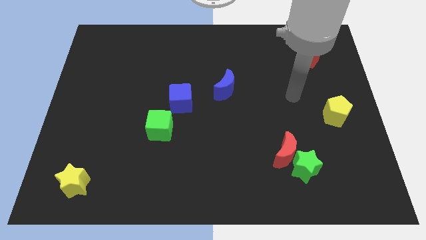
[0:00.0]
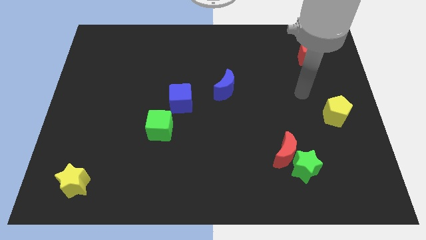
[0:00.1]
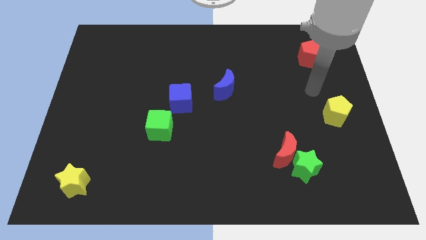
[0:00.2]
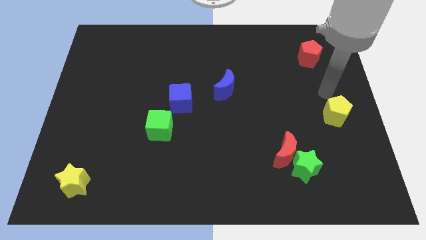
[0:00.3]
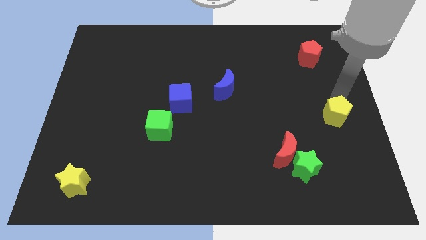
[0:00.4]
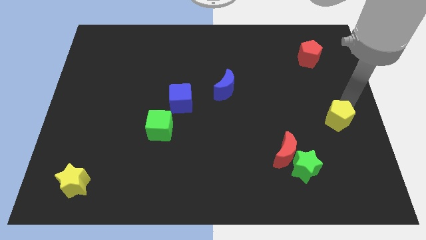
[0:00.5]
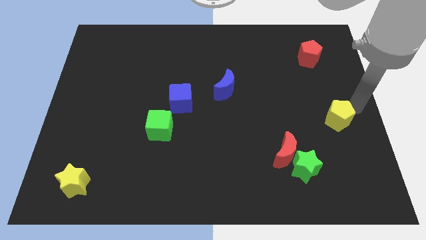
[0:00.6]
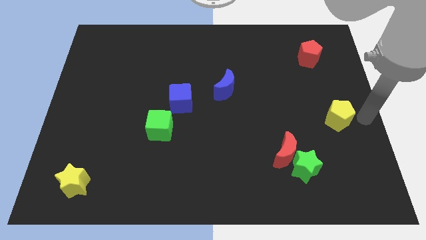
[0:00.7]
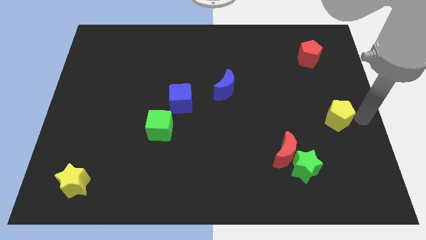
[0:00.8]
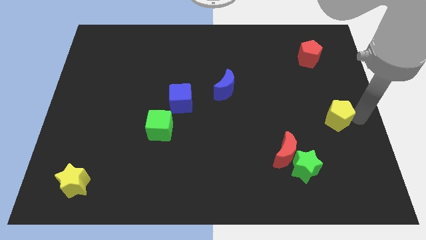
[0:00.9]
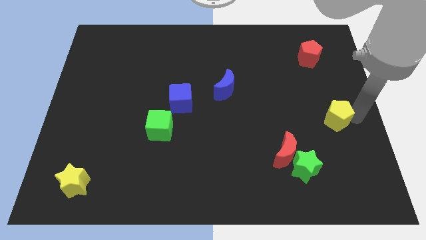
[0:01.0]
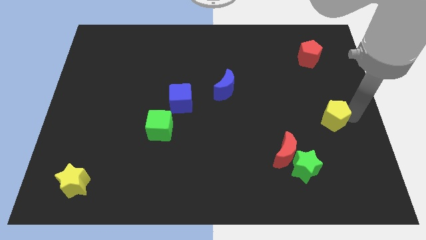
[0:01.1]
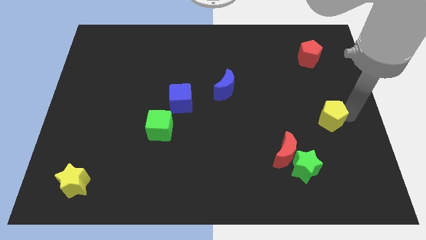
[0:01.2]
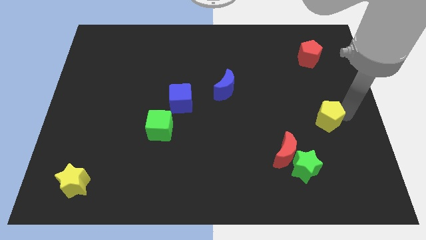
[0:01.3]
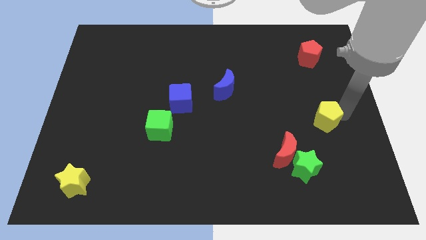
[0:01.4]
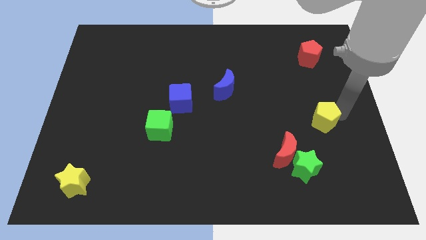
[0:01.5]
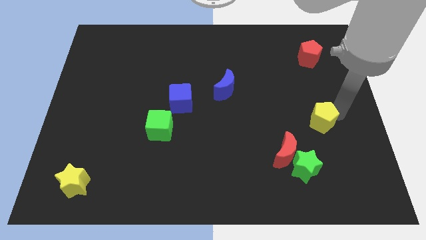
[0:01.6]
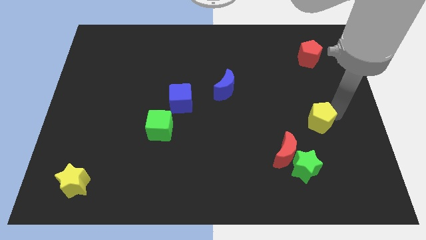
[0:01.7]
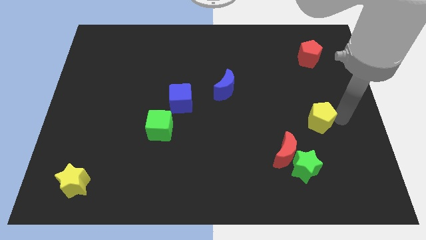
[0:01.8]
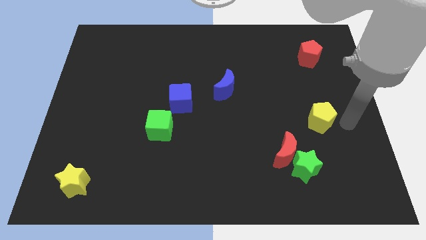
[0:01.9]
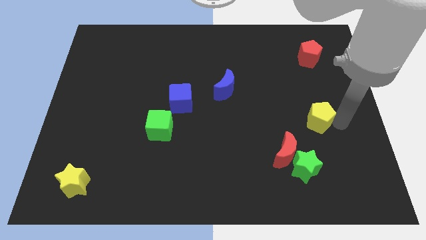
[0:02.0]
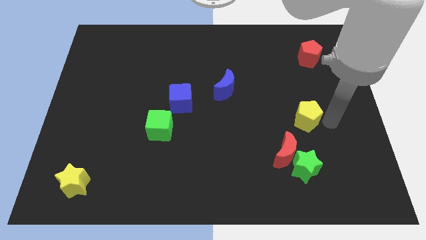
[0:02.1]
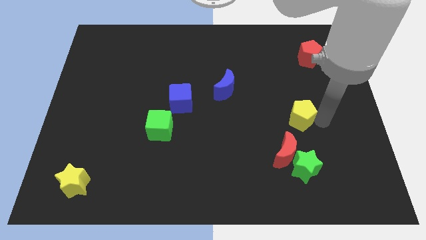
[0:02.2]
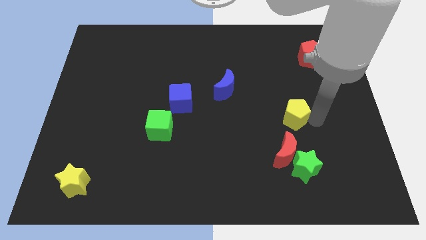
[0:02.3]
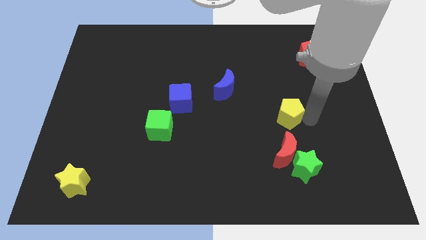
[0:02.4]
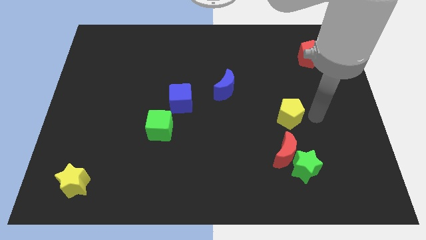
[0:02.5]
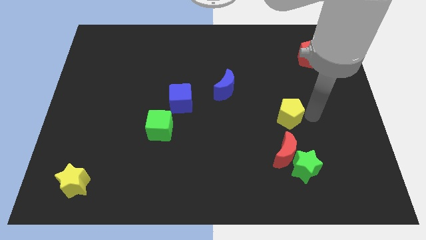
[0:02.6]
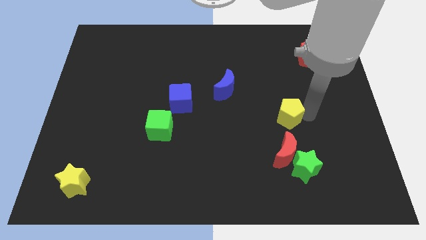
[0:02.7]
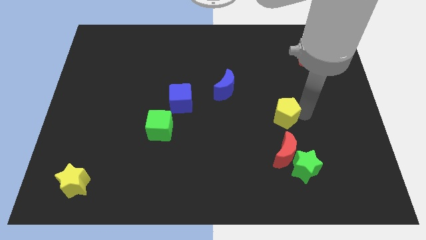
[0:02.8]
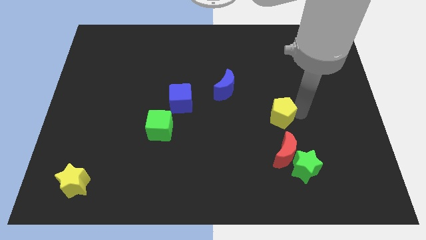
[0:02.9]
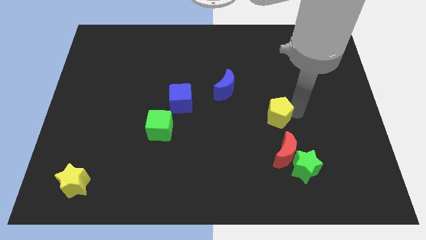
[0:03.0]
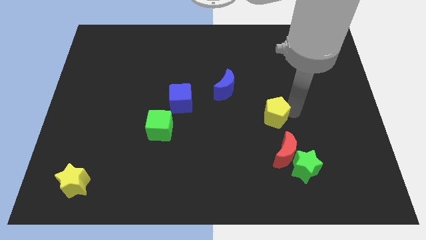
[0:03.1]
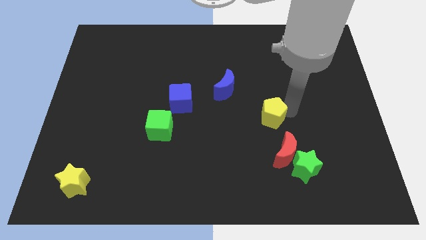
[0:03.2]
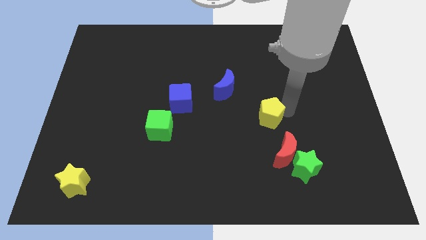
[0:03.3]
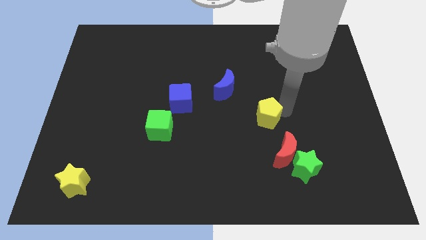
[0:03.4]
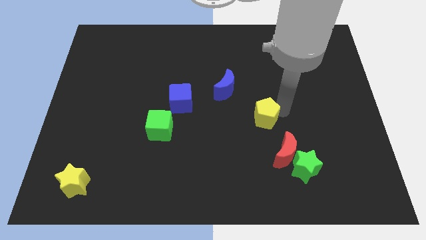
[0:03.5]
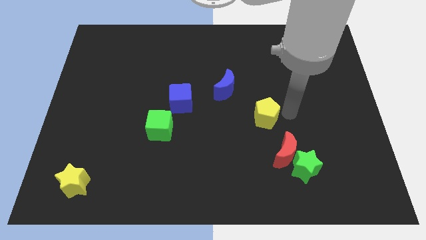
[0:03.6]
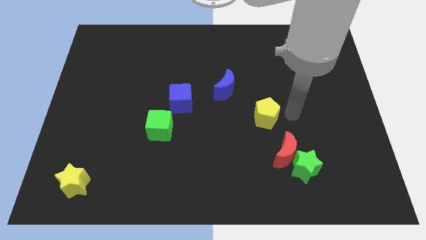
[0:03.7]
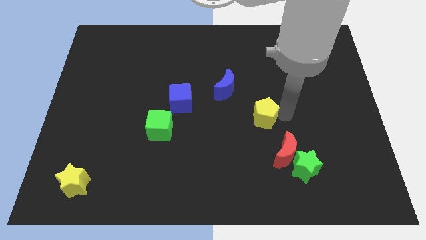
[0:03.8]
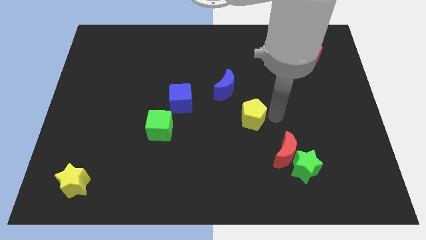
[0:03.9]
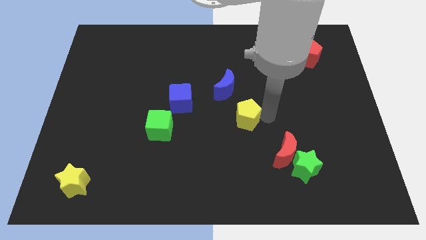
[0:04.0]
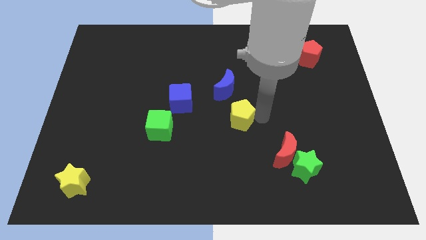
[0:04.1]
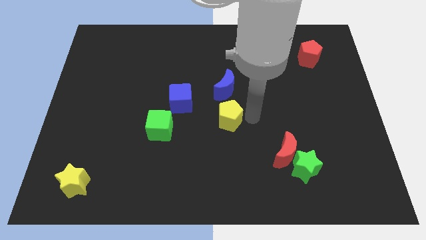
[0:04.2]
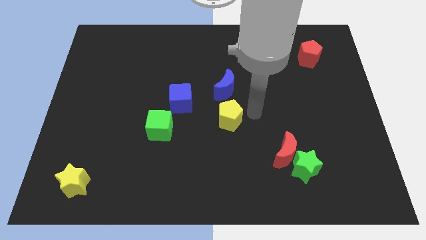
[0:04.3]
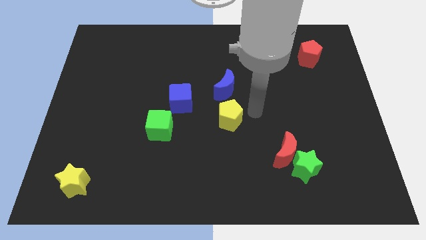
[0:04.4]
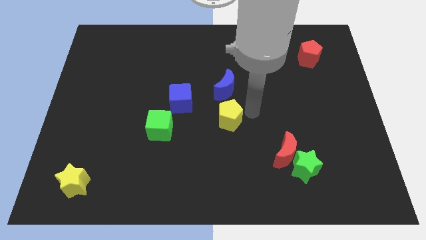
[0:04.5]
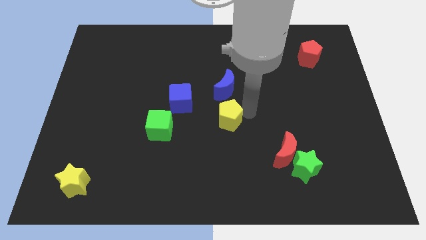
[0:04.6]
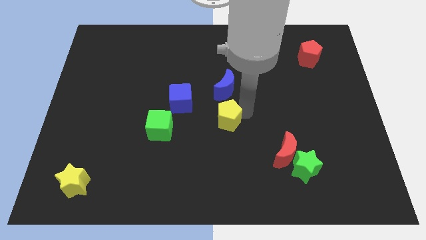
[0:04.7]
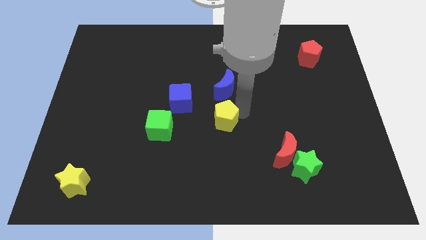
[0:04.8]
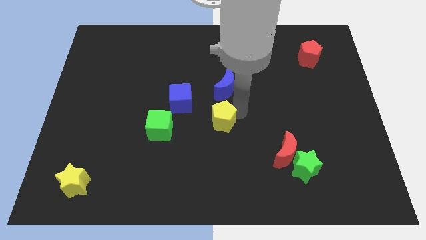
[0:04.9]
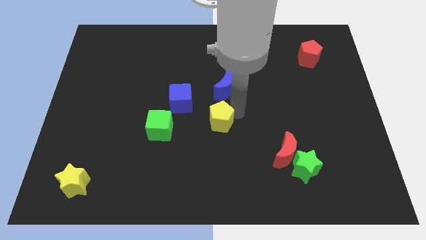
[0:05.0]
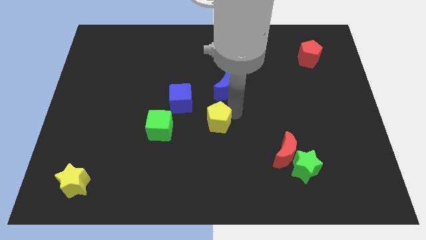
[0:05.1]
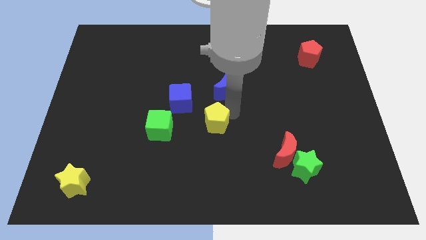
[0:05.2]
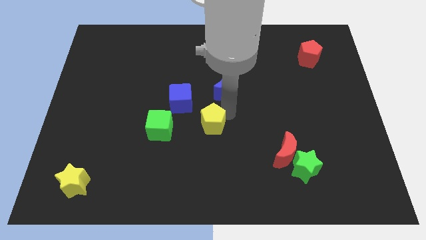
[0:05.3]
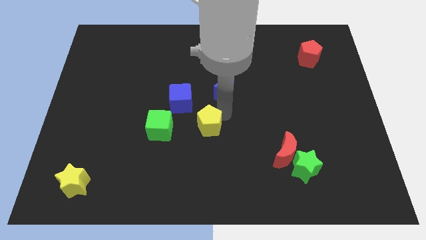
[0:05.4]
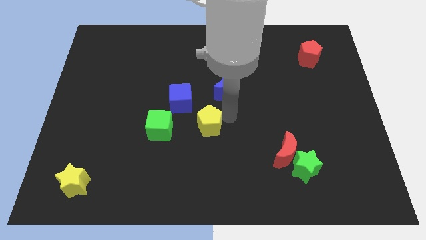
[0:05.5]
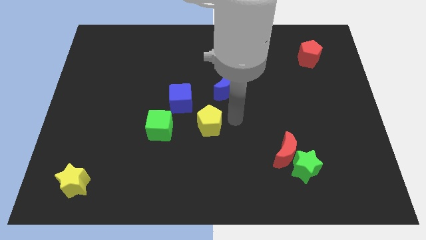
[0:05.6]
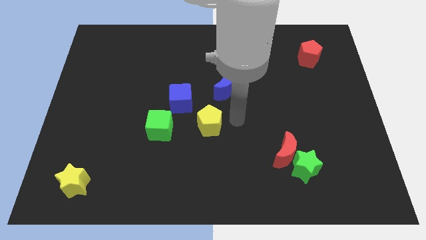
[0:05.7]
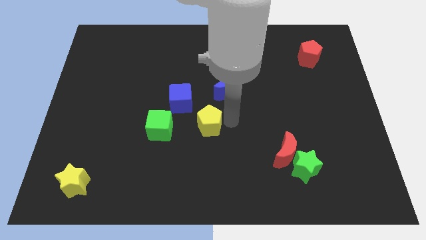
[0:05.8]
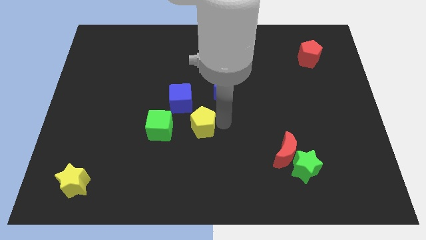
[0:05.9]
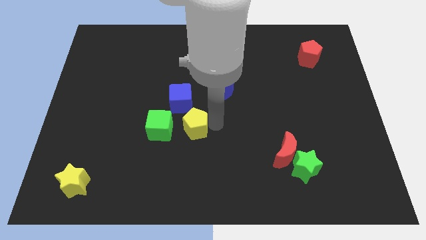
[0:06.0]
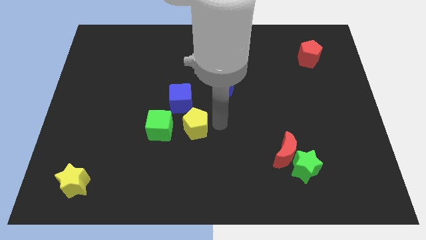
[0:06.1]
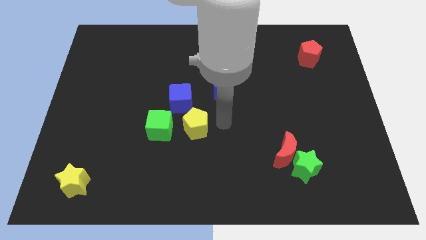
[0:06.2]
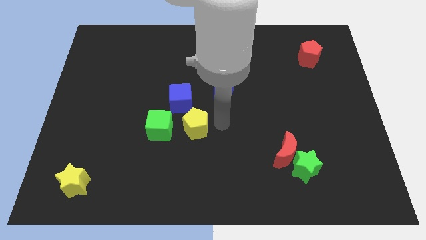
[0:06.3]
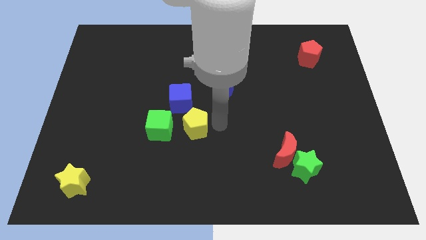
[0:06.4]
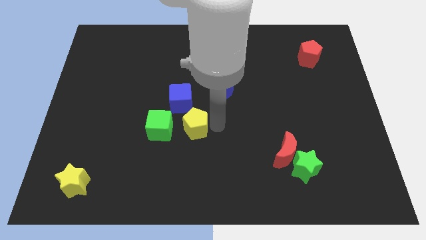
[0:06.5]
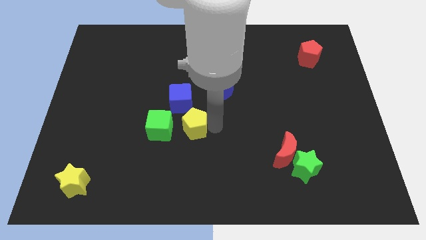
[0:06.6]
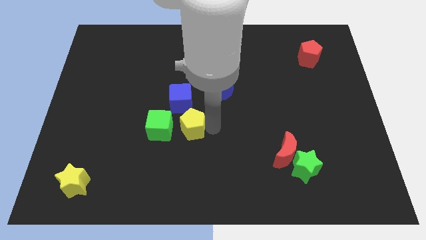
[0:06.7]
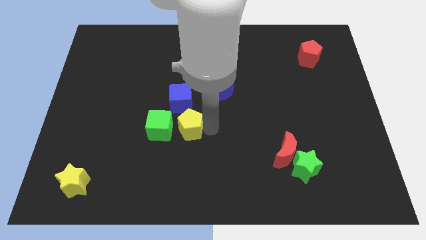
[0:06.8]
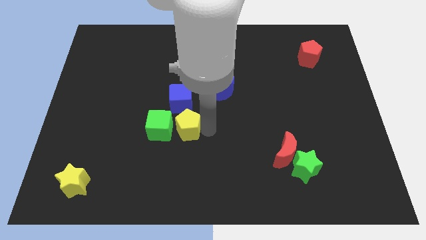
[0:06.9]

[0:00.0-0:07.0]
put the yellow pentagon close to the green cube
